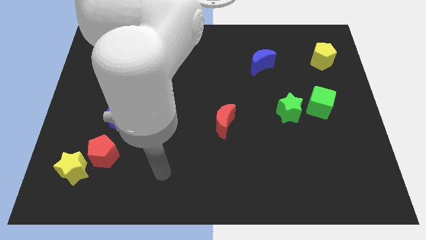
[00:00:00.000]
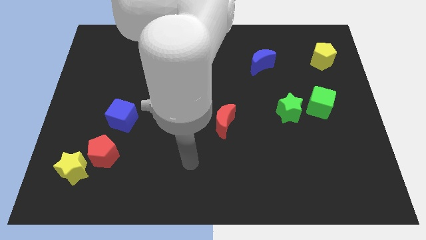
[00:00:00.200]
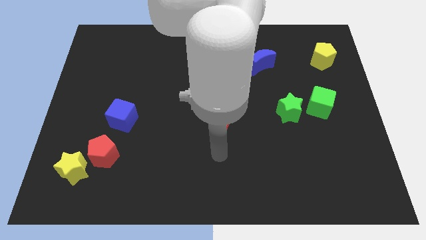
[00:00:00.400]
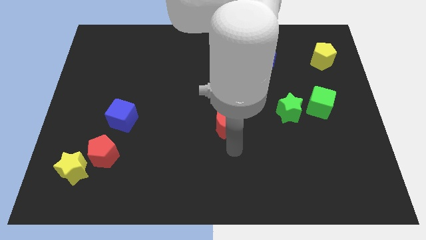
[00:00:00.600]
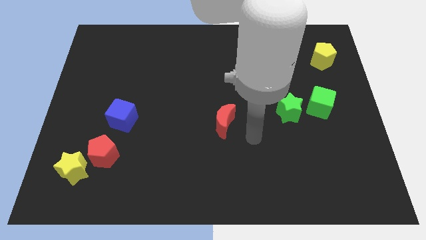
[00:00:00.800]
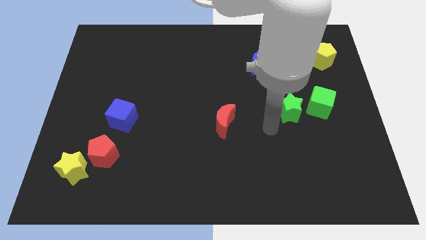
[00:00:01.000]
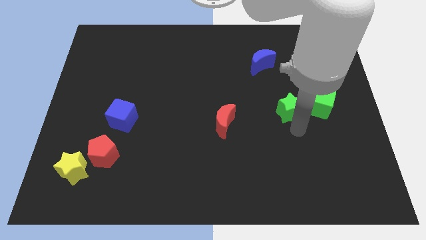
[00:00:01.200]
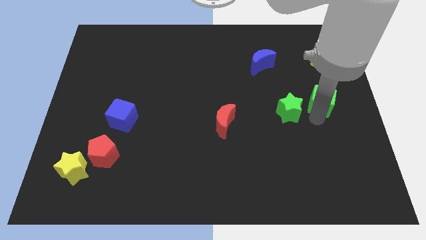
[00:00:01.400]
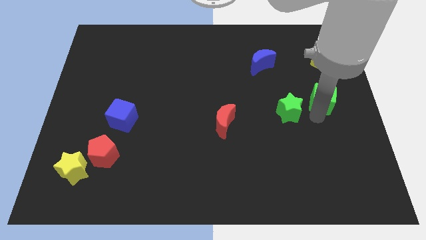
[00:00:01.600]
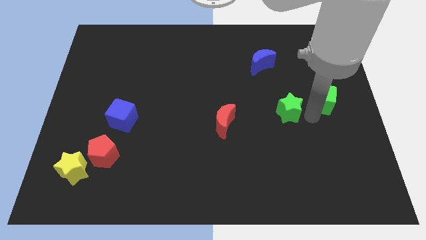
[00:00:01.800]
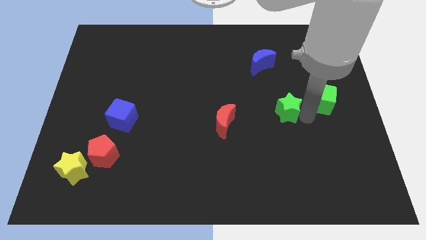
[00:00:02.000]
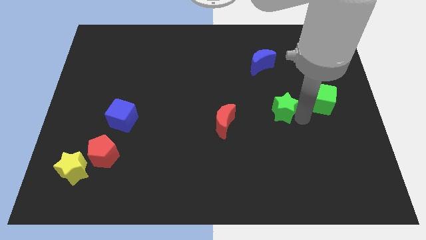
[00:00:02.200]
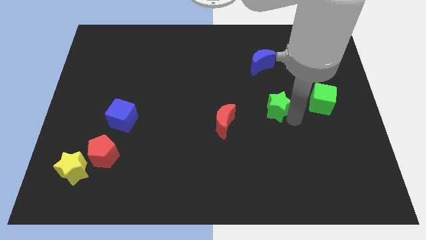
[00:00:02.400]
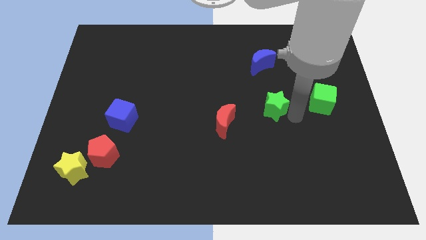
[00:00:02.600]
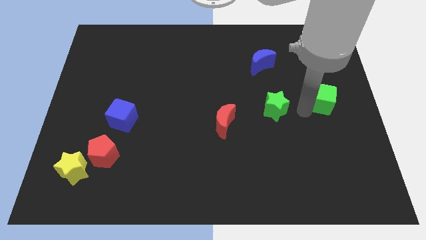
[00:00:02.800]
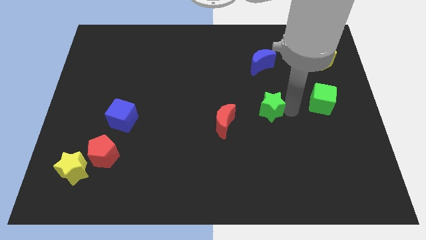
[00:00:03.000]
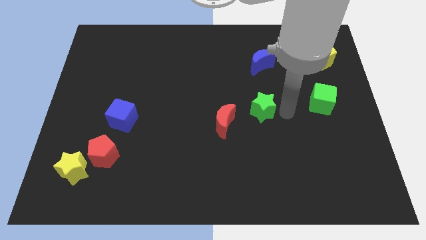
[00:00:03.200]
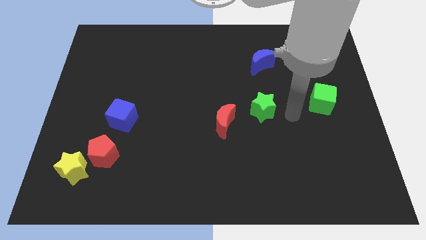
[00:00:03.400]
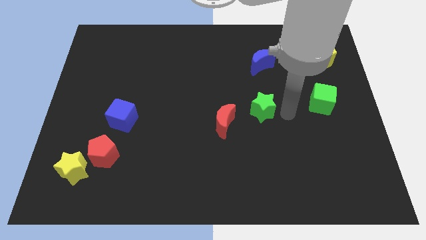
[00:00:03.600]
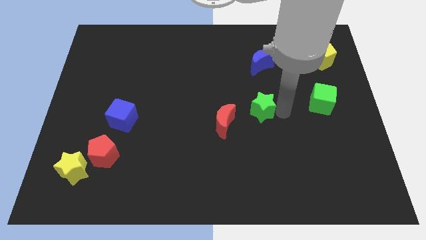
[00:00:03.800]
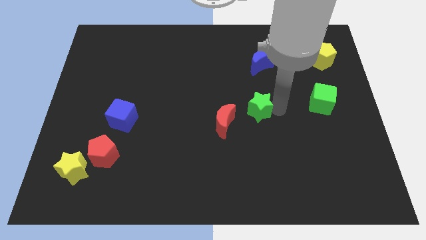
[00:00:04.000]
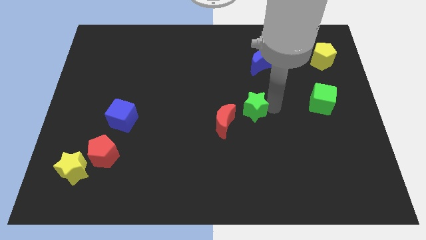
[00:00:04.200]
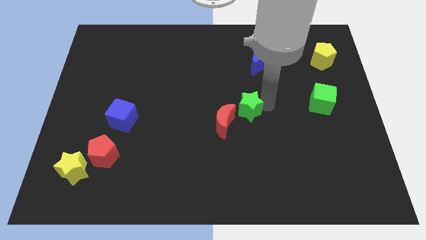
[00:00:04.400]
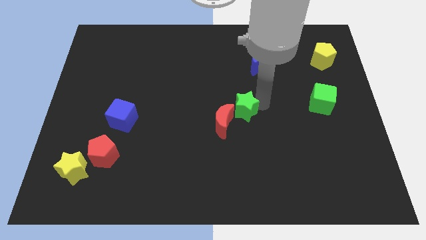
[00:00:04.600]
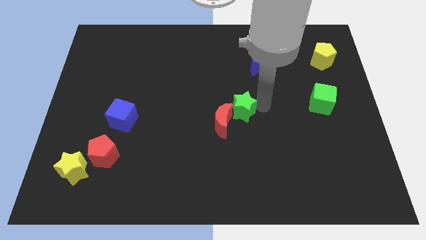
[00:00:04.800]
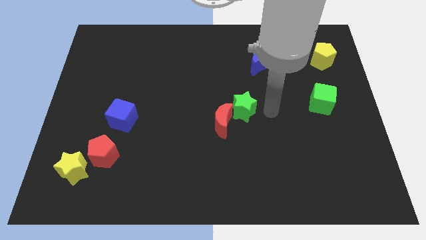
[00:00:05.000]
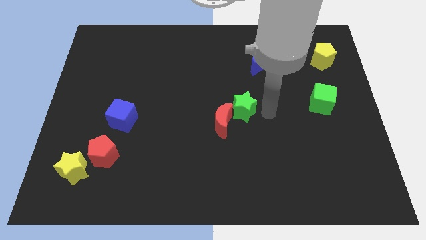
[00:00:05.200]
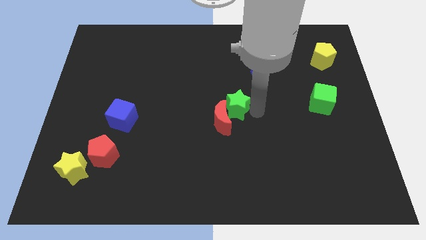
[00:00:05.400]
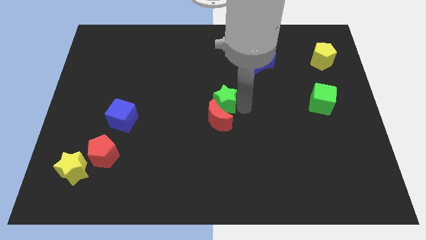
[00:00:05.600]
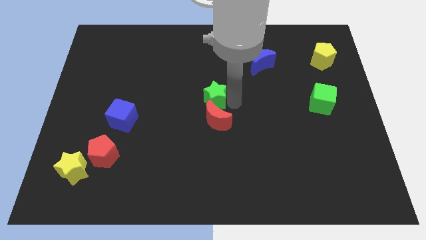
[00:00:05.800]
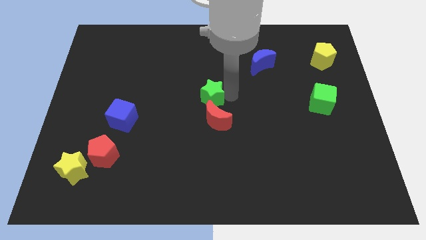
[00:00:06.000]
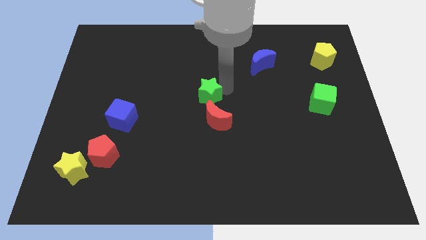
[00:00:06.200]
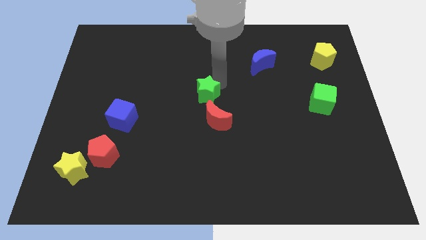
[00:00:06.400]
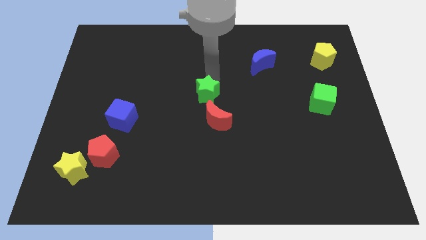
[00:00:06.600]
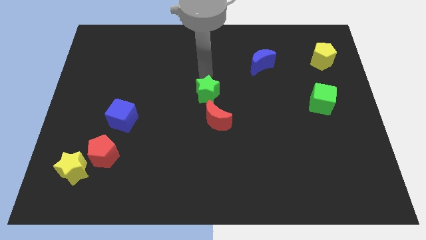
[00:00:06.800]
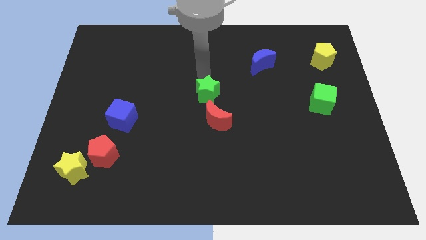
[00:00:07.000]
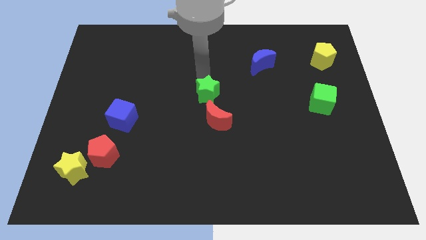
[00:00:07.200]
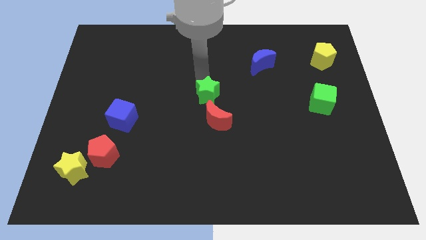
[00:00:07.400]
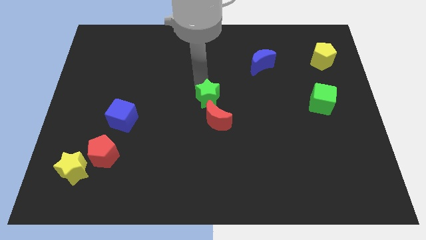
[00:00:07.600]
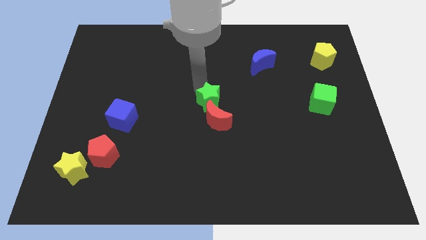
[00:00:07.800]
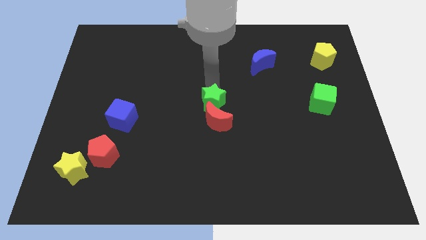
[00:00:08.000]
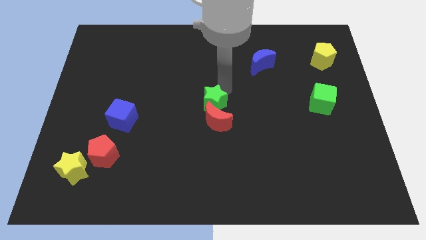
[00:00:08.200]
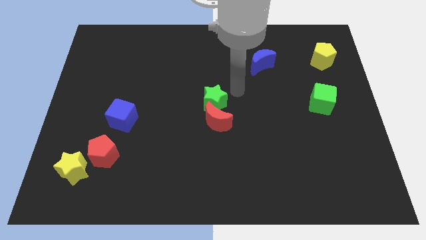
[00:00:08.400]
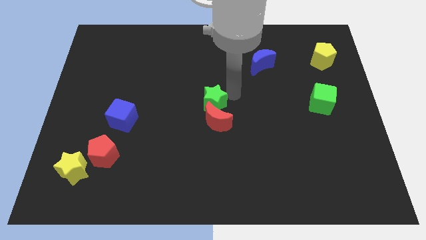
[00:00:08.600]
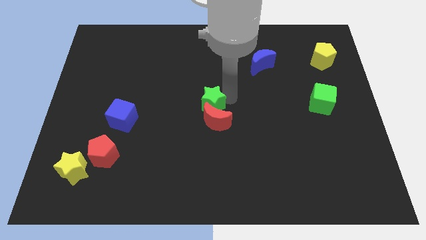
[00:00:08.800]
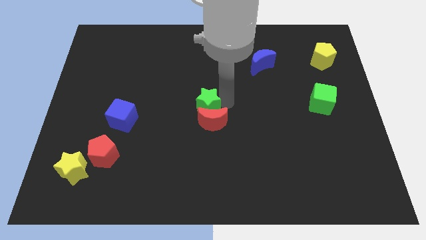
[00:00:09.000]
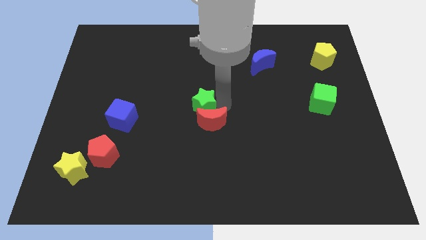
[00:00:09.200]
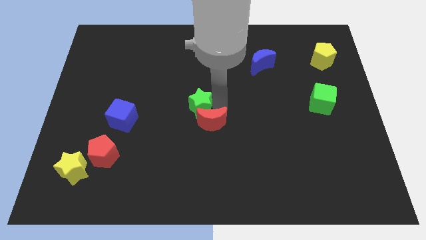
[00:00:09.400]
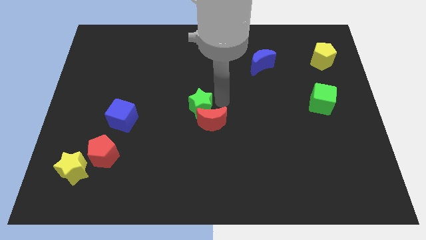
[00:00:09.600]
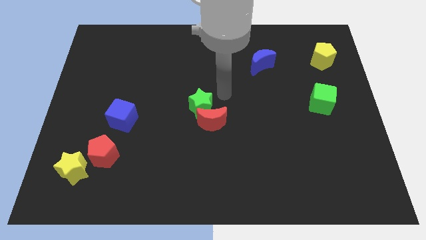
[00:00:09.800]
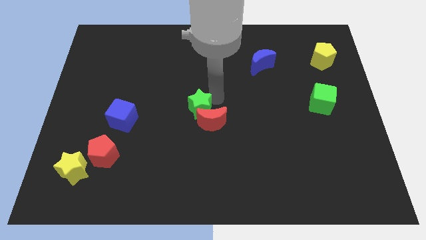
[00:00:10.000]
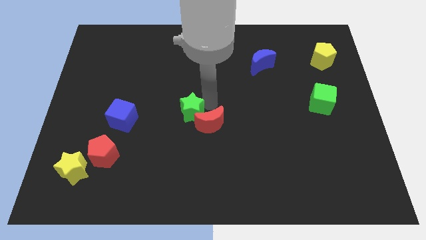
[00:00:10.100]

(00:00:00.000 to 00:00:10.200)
push the green star to the right side of the blue cube

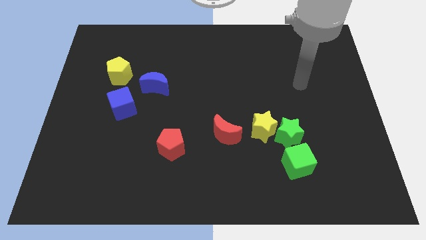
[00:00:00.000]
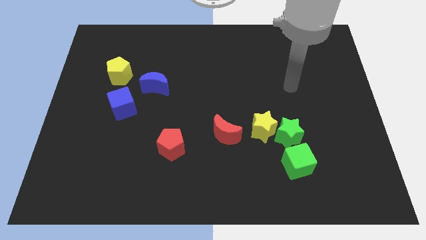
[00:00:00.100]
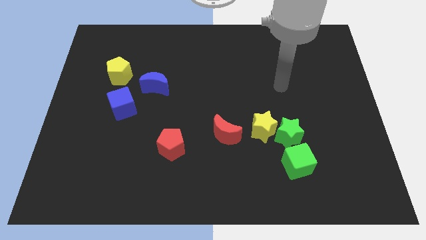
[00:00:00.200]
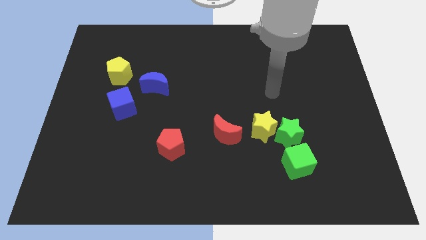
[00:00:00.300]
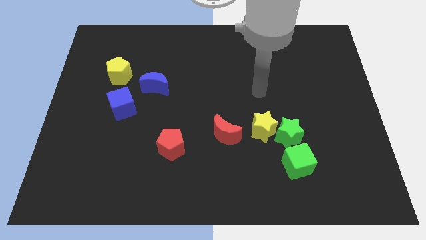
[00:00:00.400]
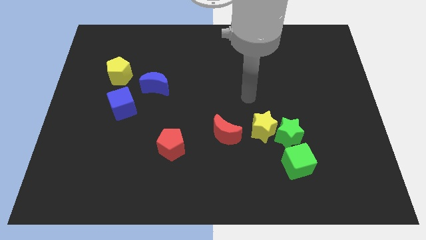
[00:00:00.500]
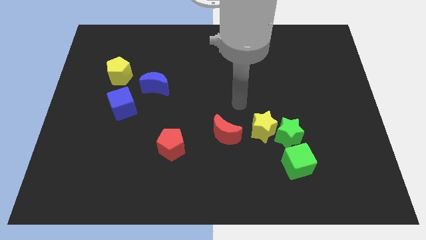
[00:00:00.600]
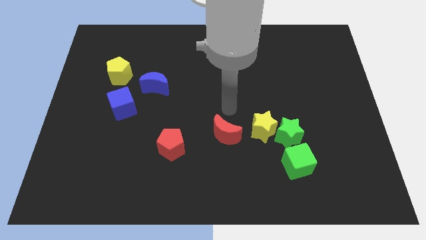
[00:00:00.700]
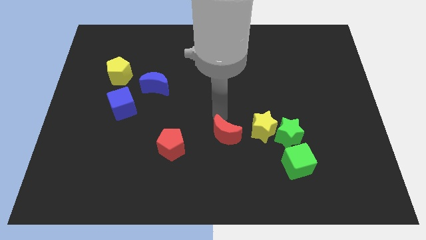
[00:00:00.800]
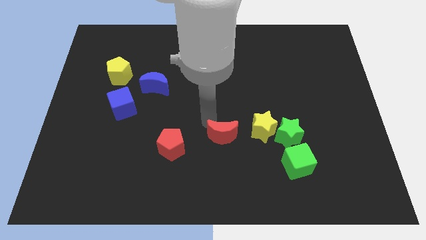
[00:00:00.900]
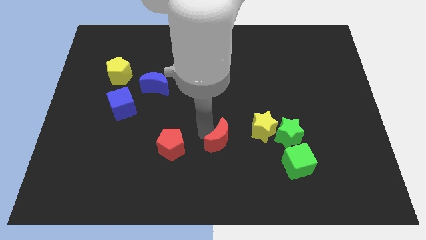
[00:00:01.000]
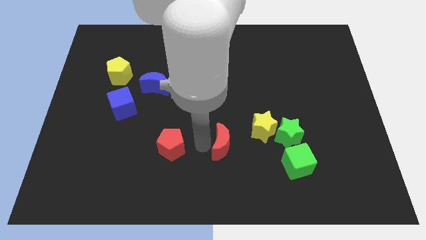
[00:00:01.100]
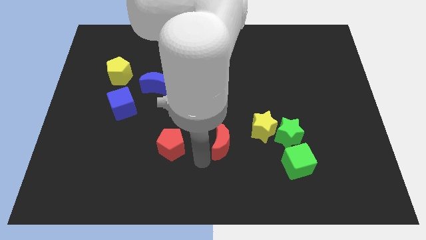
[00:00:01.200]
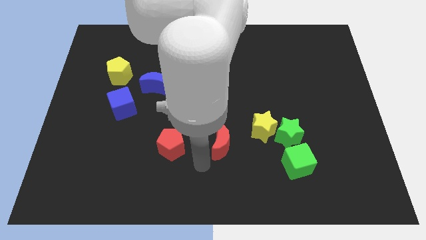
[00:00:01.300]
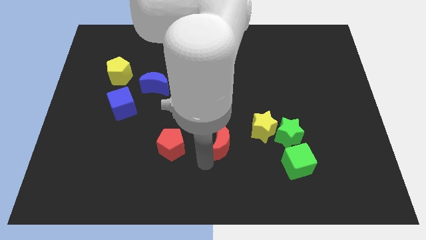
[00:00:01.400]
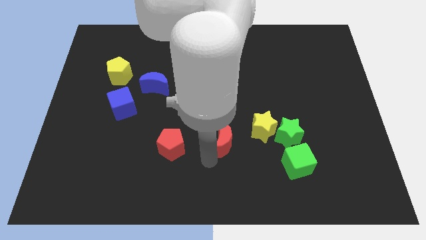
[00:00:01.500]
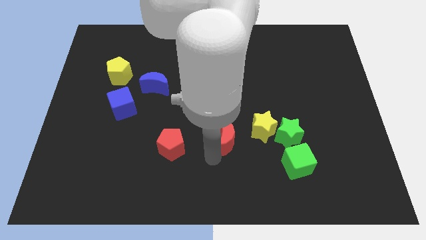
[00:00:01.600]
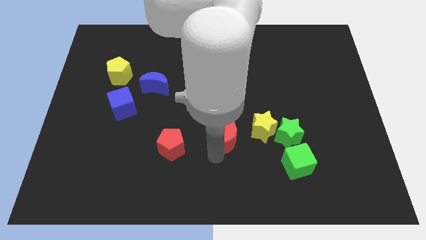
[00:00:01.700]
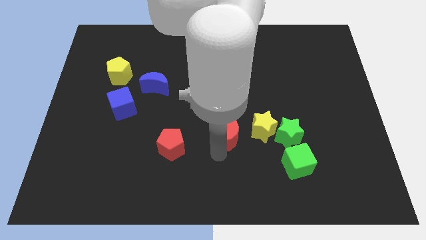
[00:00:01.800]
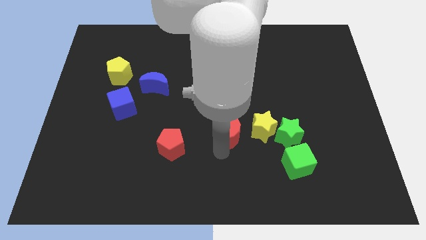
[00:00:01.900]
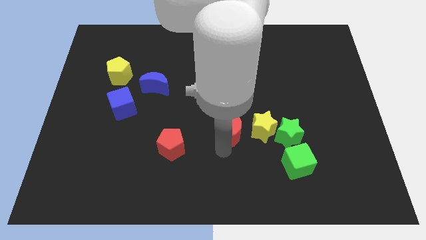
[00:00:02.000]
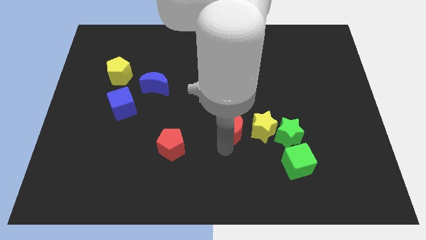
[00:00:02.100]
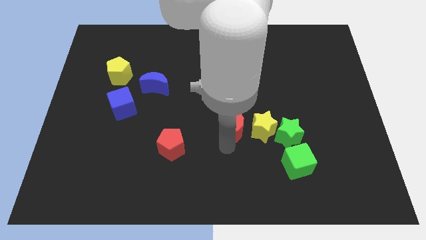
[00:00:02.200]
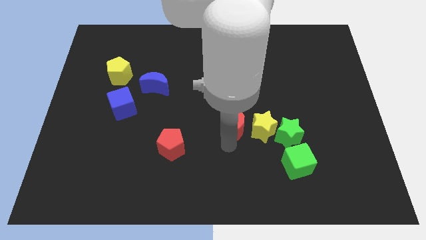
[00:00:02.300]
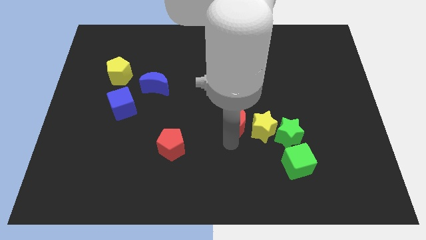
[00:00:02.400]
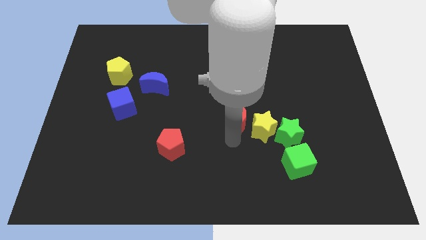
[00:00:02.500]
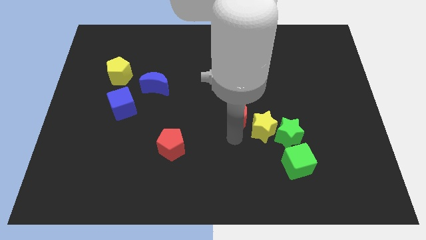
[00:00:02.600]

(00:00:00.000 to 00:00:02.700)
push the red moon to the top left of the green star
